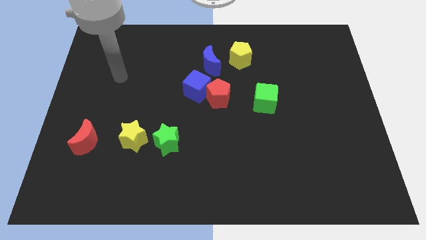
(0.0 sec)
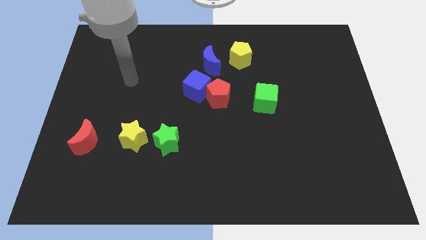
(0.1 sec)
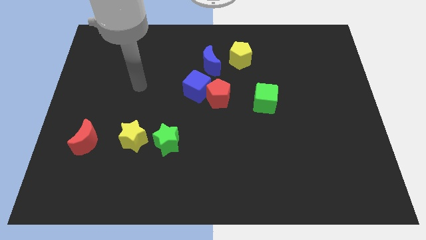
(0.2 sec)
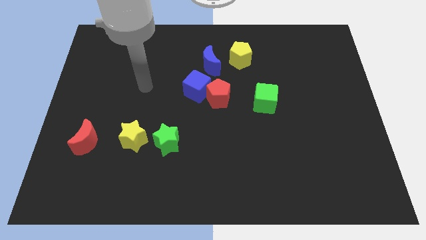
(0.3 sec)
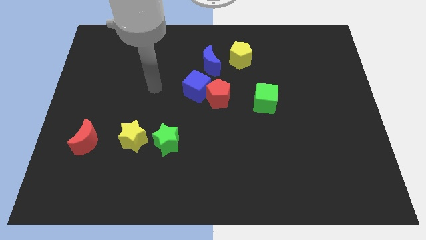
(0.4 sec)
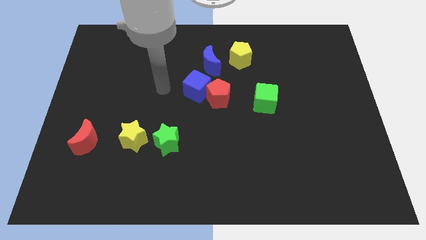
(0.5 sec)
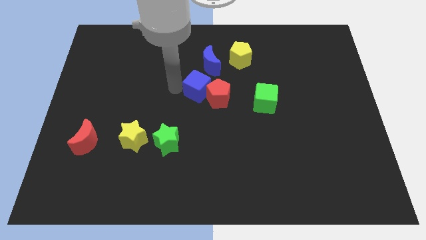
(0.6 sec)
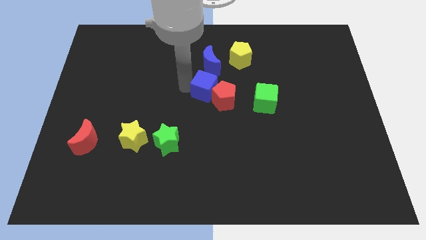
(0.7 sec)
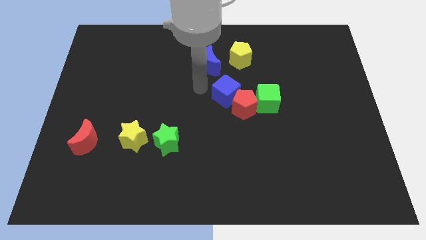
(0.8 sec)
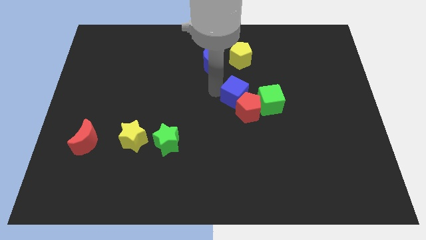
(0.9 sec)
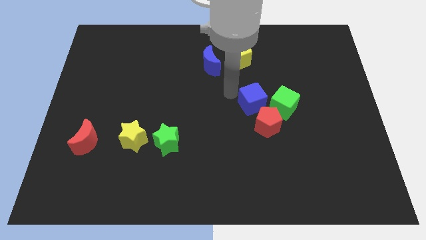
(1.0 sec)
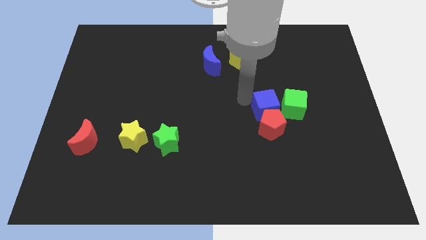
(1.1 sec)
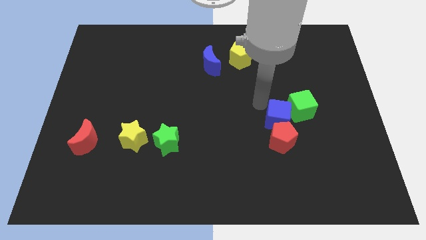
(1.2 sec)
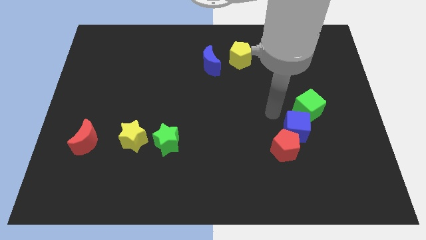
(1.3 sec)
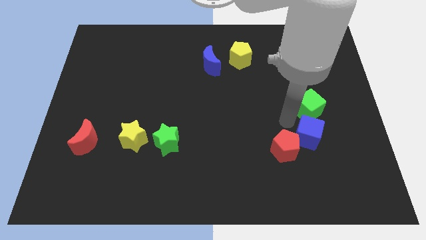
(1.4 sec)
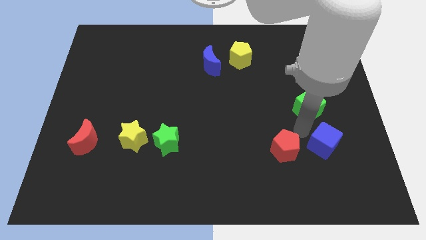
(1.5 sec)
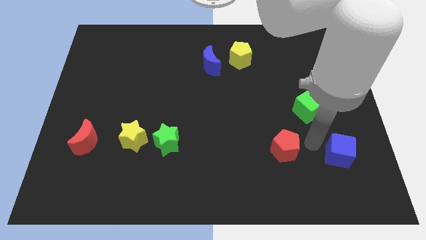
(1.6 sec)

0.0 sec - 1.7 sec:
move the red pentagon away from the blue cube

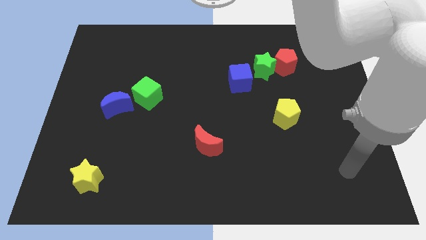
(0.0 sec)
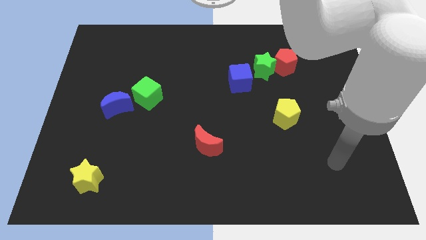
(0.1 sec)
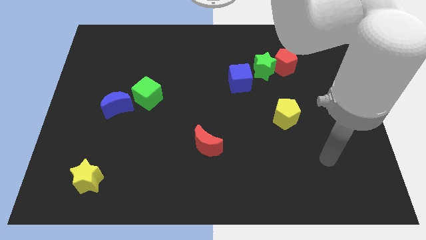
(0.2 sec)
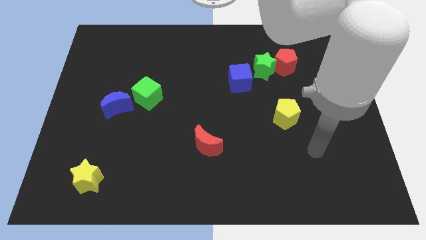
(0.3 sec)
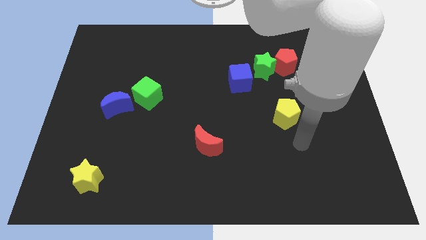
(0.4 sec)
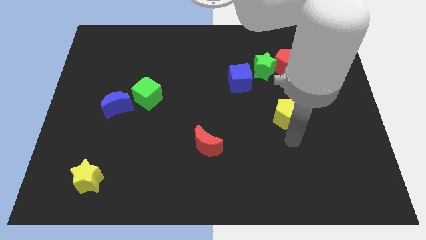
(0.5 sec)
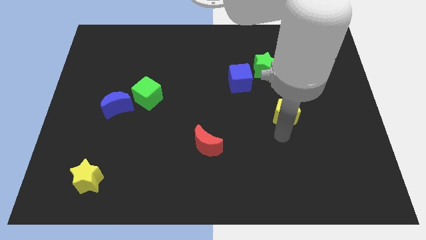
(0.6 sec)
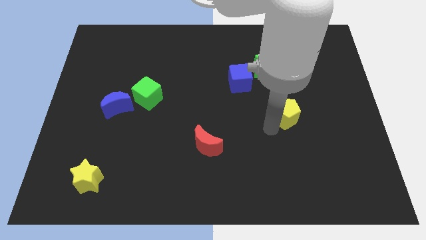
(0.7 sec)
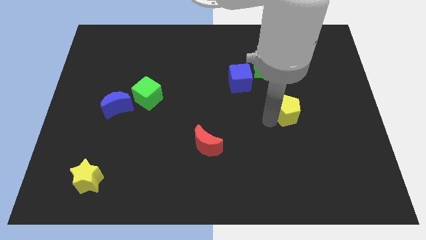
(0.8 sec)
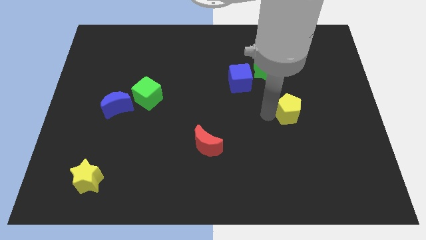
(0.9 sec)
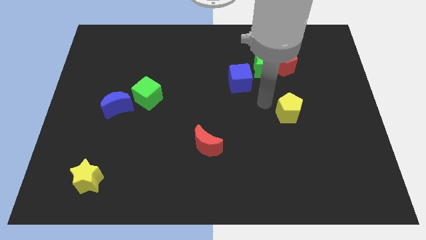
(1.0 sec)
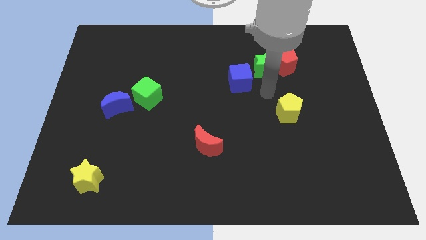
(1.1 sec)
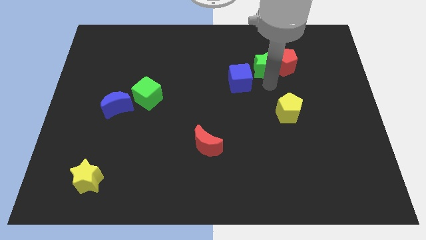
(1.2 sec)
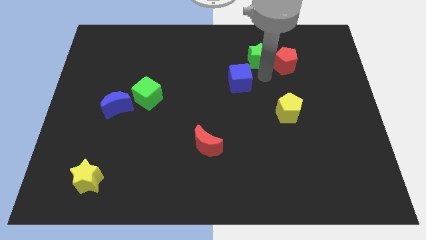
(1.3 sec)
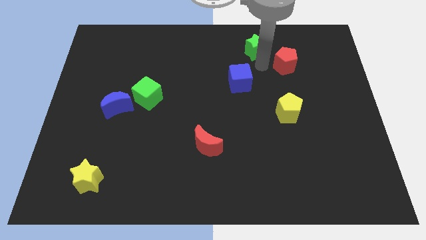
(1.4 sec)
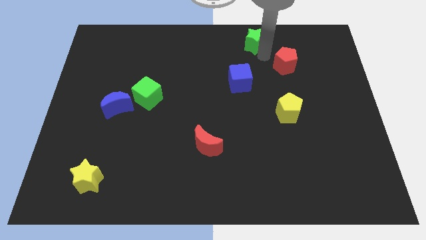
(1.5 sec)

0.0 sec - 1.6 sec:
pull the red pentagon apart from the green star

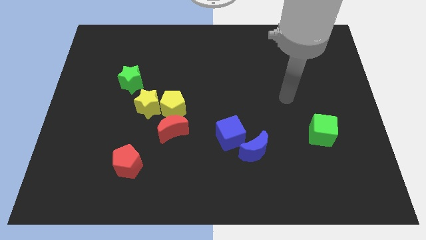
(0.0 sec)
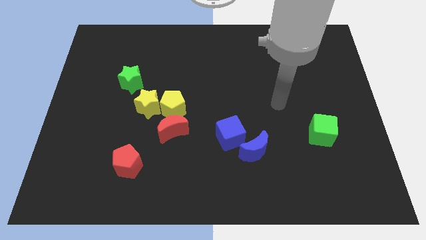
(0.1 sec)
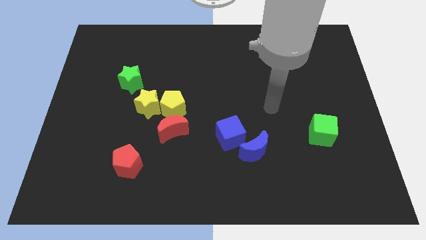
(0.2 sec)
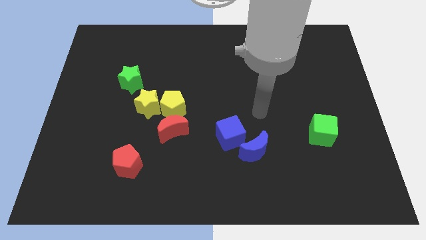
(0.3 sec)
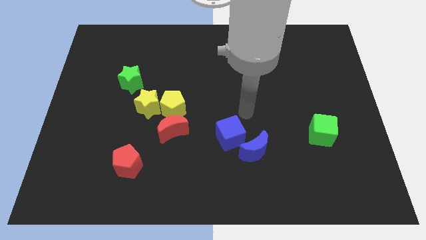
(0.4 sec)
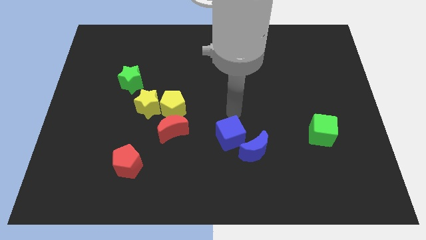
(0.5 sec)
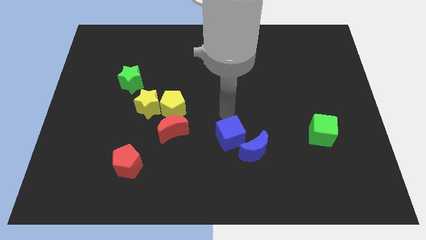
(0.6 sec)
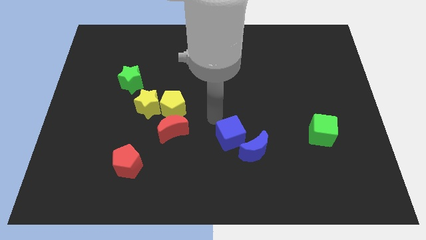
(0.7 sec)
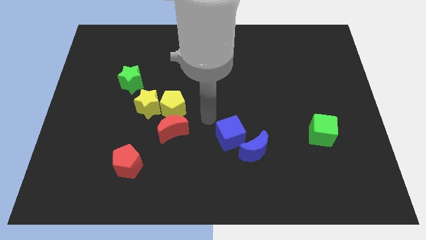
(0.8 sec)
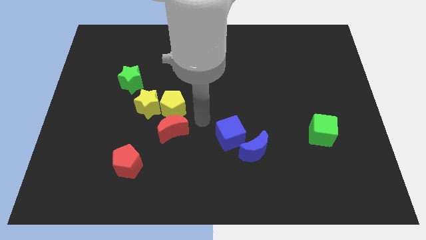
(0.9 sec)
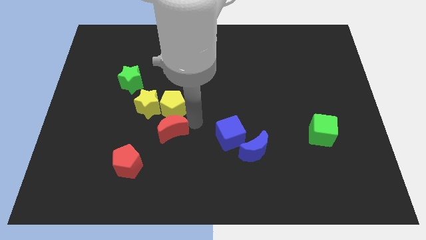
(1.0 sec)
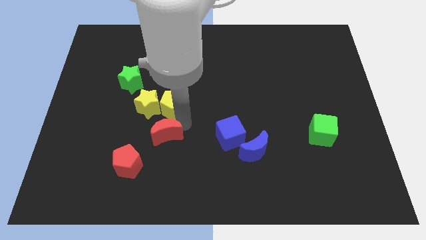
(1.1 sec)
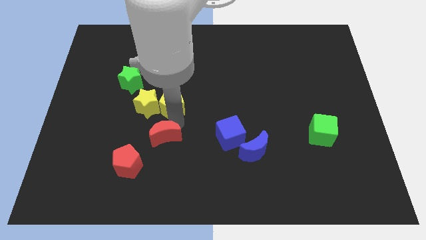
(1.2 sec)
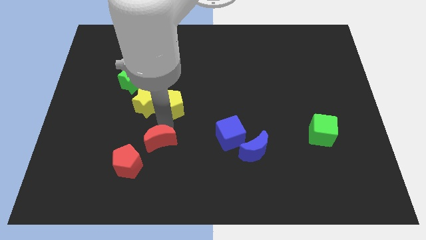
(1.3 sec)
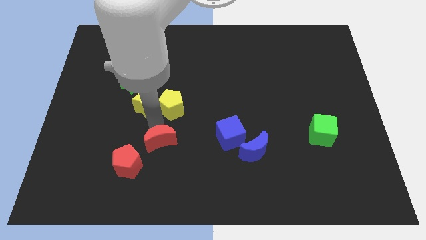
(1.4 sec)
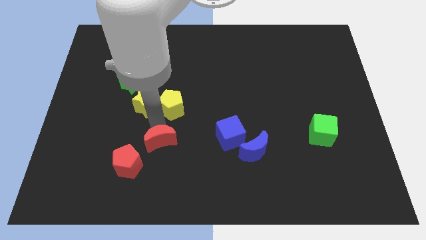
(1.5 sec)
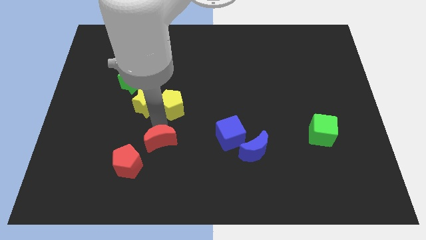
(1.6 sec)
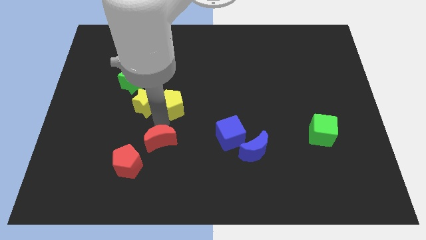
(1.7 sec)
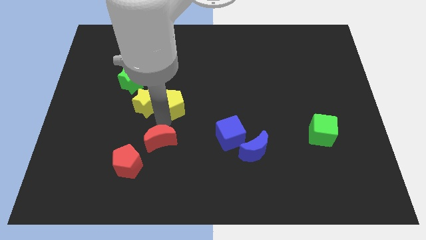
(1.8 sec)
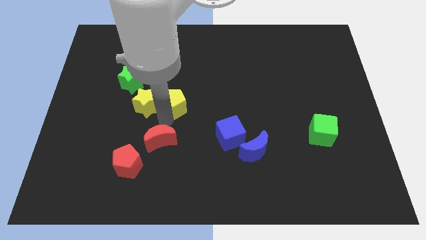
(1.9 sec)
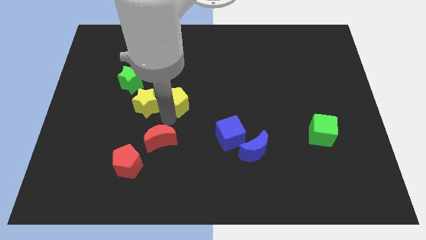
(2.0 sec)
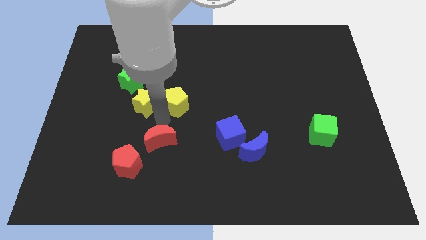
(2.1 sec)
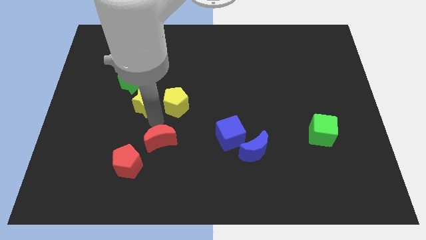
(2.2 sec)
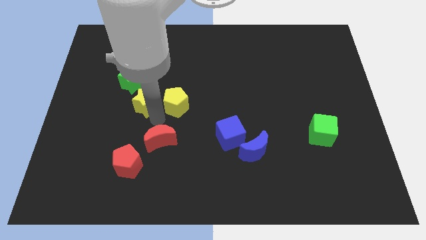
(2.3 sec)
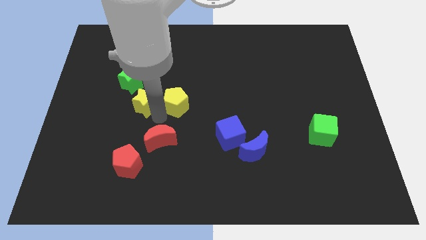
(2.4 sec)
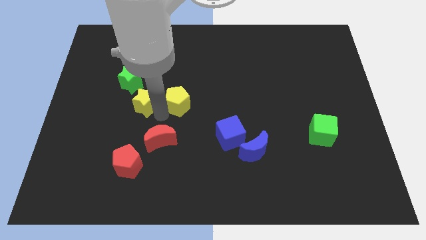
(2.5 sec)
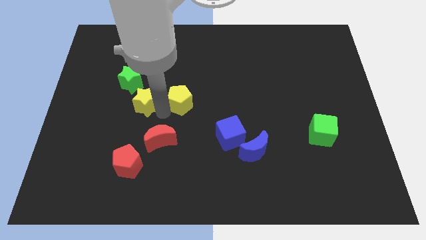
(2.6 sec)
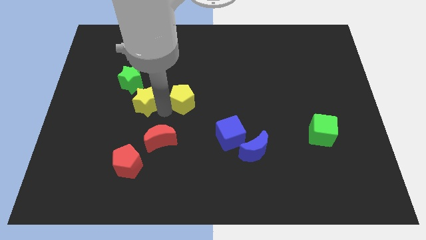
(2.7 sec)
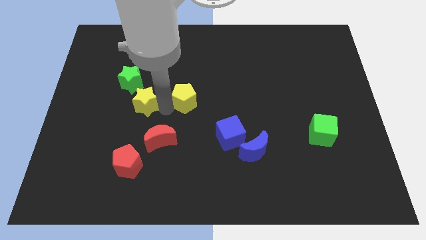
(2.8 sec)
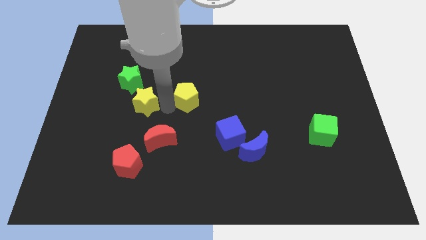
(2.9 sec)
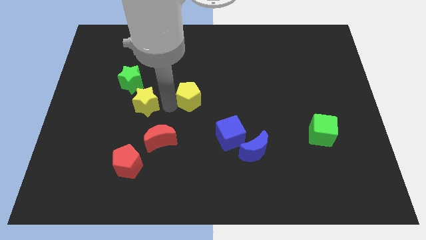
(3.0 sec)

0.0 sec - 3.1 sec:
pull the yellow pentagon apart from the yellow star and red moon

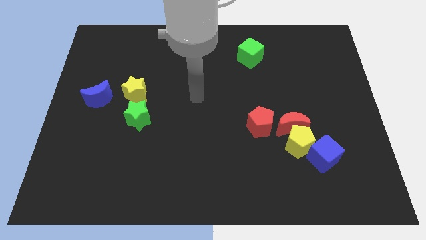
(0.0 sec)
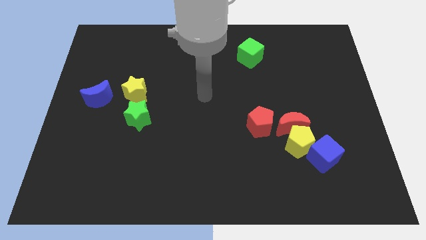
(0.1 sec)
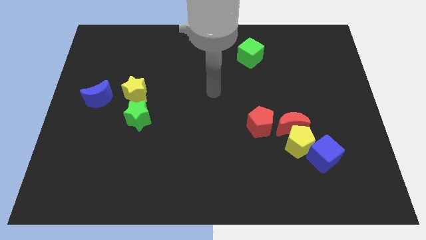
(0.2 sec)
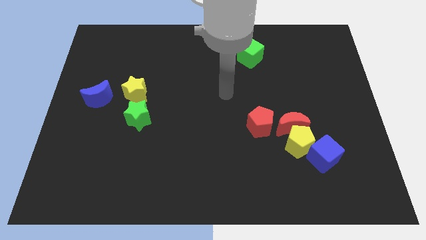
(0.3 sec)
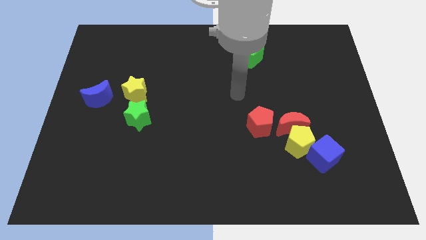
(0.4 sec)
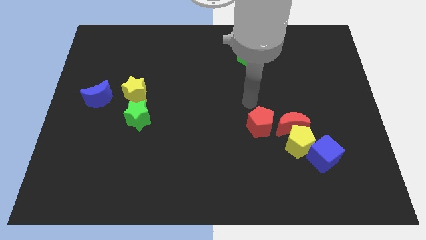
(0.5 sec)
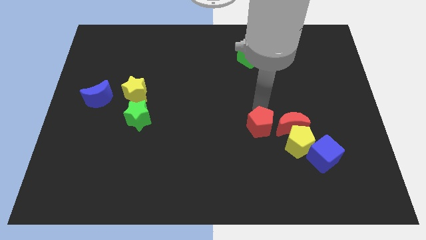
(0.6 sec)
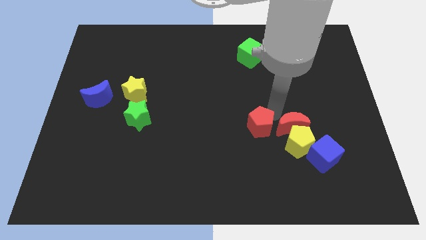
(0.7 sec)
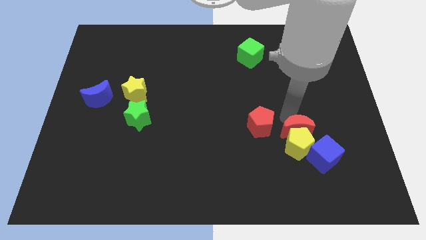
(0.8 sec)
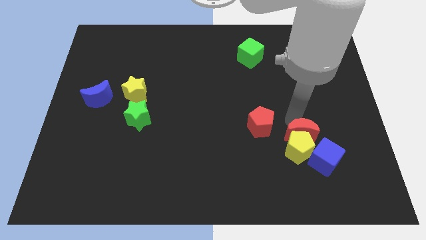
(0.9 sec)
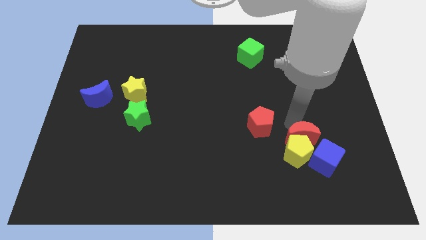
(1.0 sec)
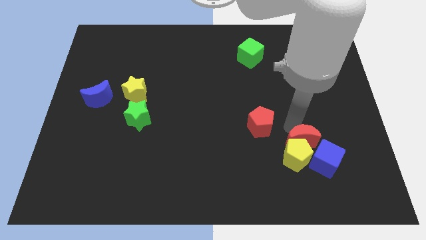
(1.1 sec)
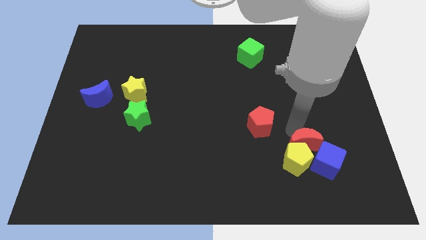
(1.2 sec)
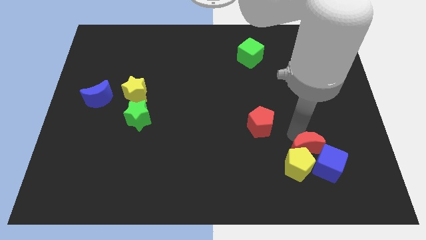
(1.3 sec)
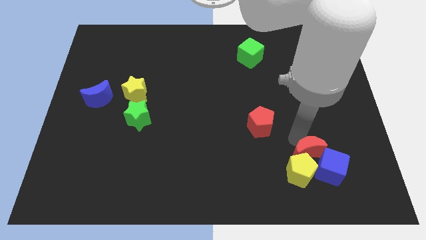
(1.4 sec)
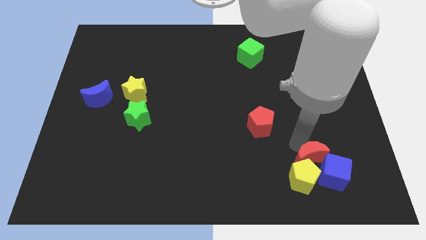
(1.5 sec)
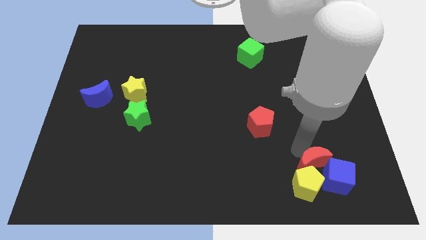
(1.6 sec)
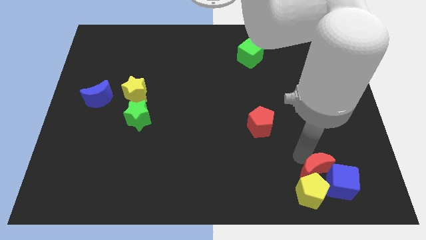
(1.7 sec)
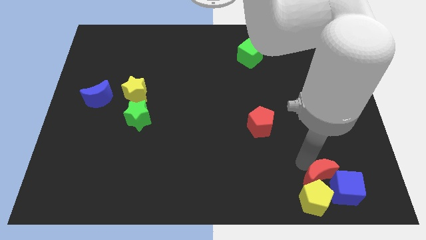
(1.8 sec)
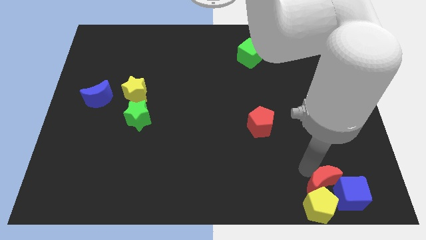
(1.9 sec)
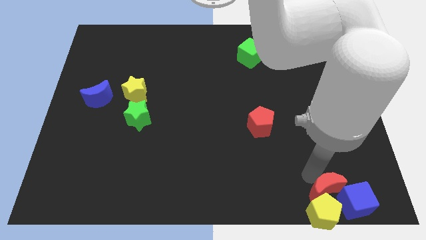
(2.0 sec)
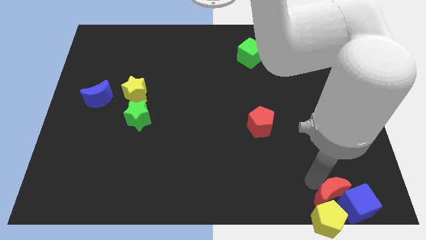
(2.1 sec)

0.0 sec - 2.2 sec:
move the yellow pentagon away from the group of blocks

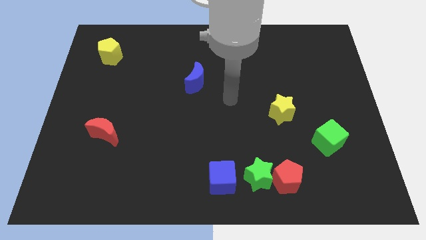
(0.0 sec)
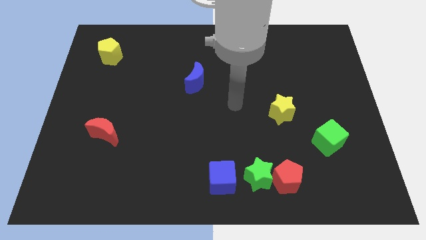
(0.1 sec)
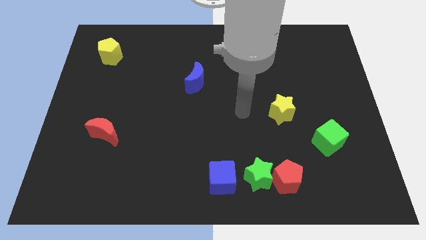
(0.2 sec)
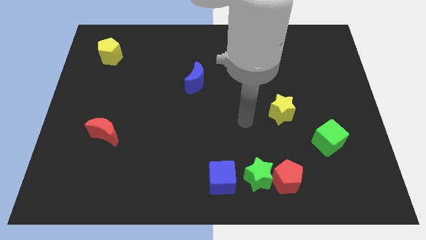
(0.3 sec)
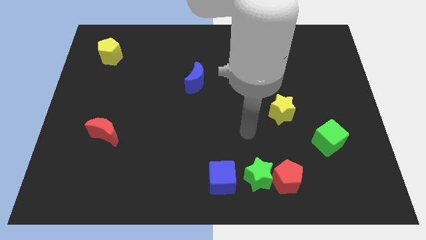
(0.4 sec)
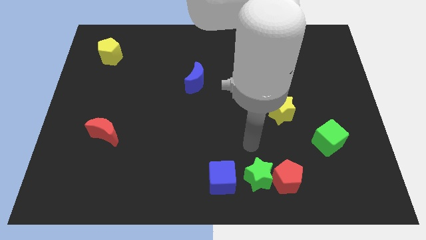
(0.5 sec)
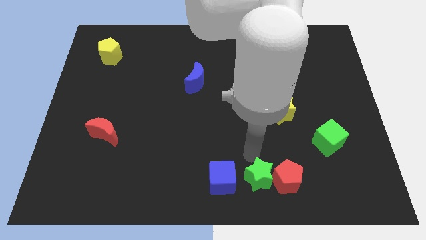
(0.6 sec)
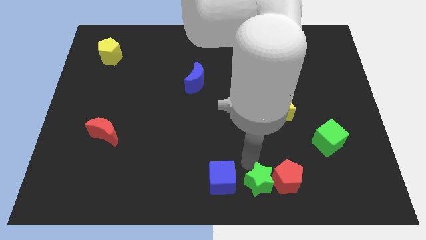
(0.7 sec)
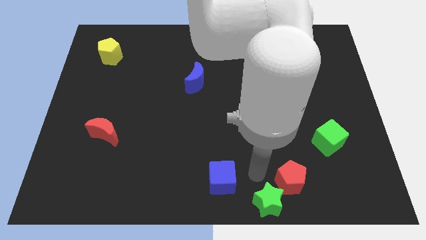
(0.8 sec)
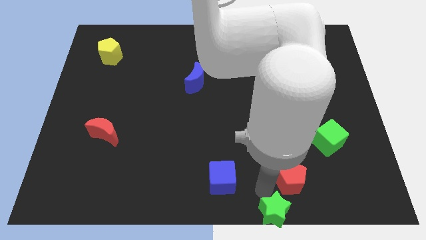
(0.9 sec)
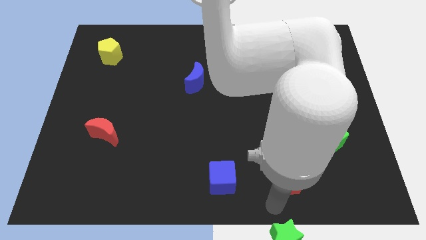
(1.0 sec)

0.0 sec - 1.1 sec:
move the red pentagon away from the green star
